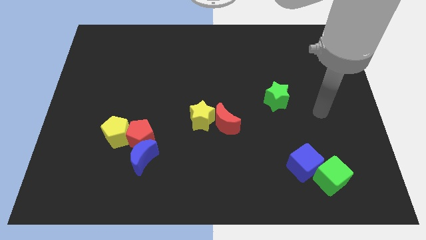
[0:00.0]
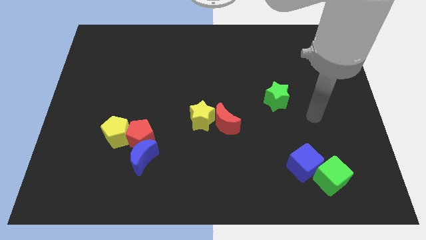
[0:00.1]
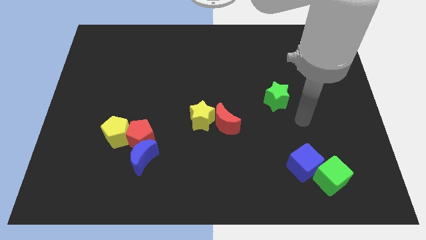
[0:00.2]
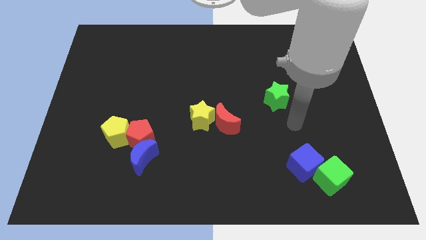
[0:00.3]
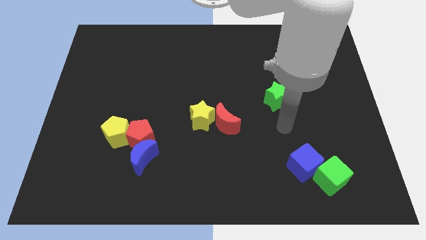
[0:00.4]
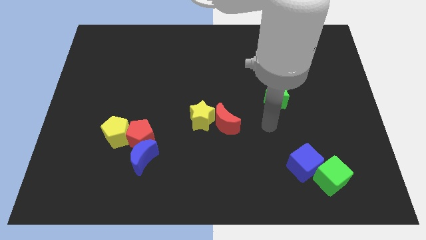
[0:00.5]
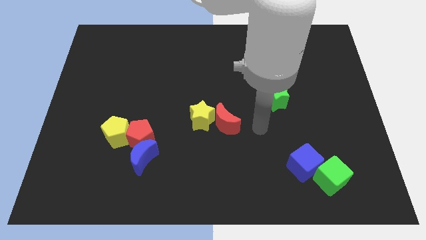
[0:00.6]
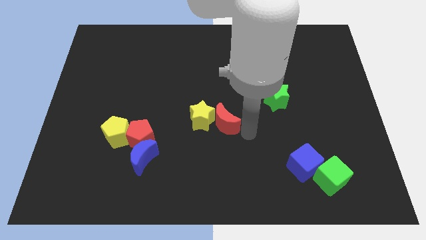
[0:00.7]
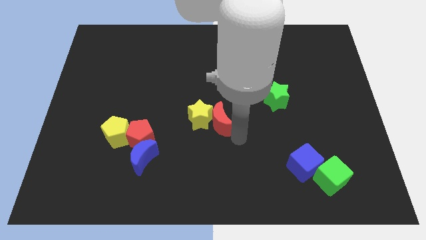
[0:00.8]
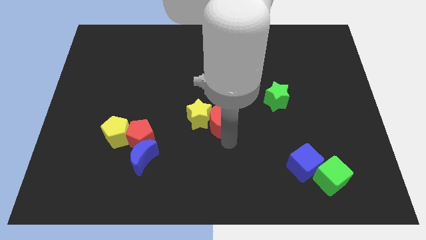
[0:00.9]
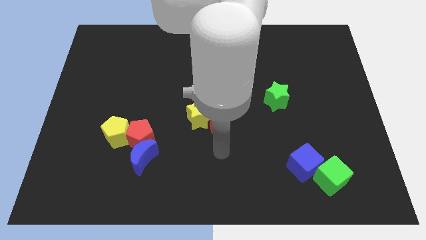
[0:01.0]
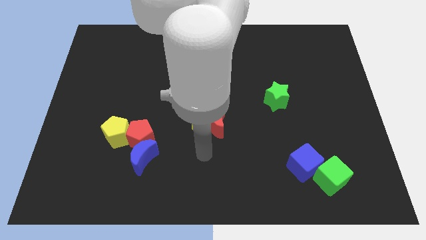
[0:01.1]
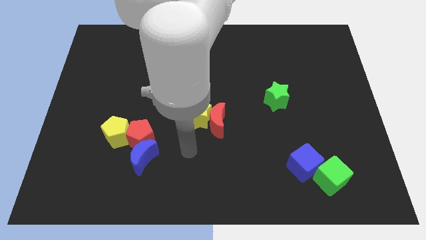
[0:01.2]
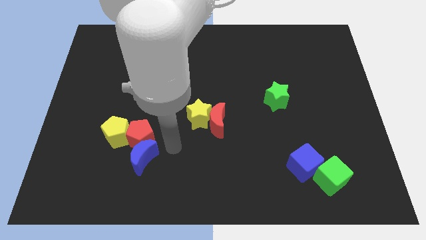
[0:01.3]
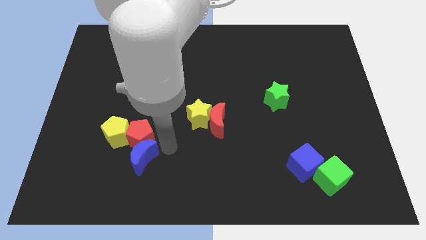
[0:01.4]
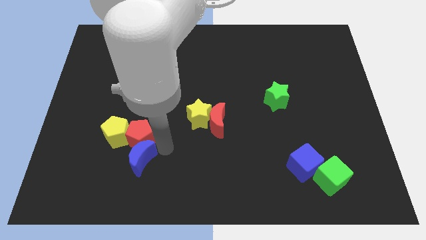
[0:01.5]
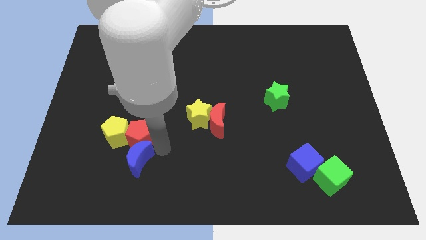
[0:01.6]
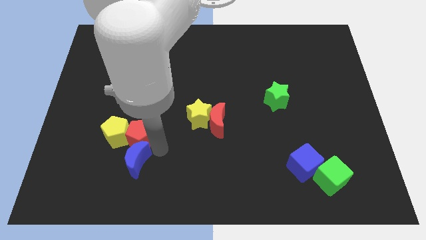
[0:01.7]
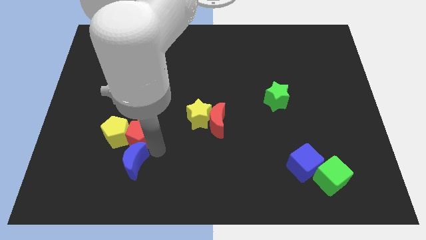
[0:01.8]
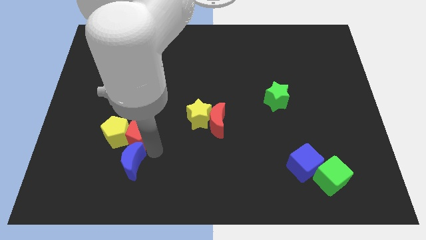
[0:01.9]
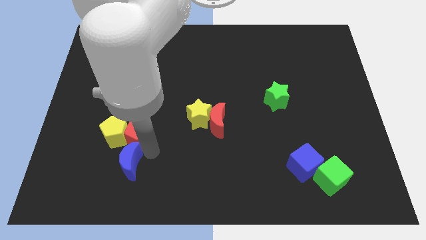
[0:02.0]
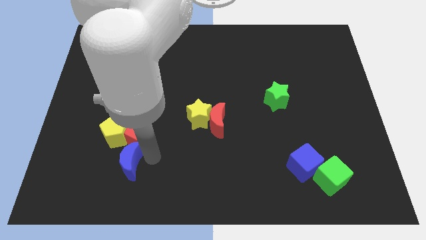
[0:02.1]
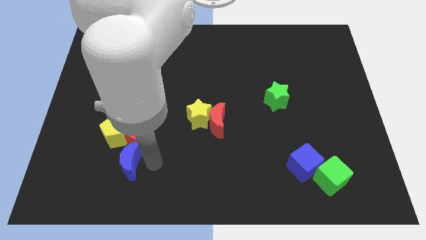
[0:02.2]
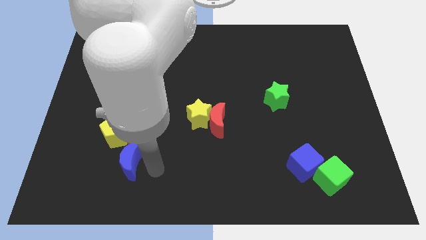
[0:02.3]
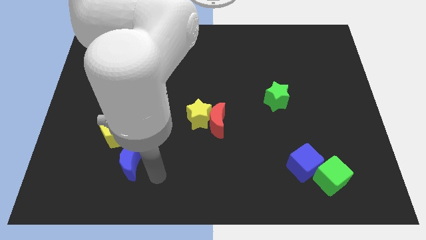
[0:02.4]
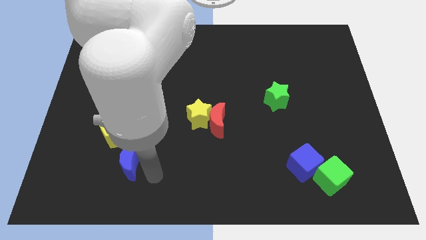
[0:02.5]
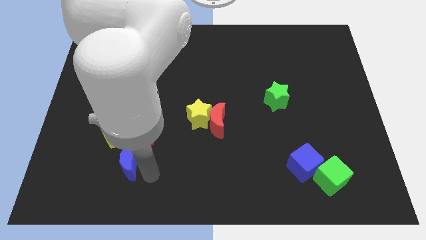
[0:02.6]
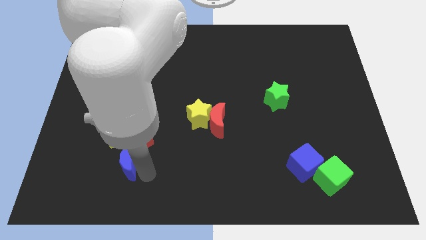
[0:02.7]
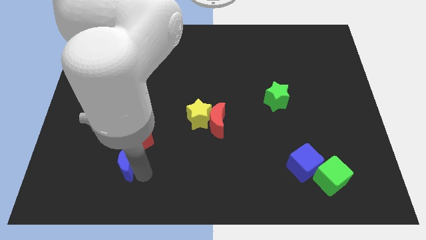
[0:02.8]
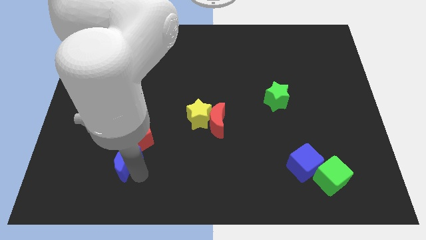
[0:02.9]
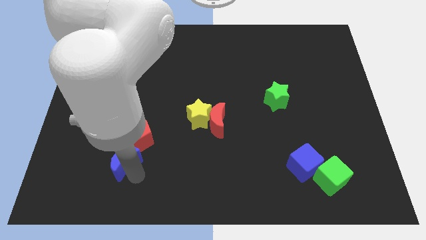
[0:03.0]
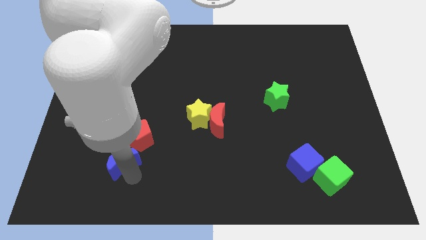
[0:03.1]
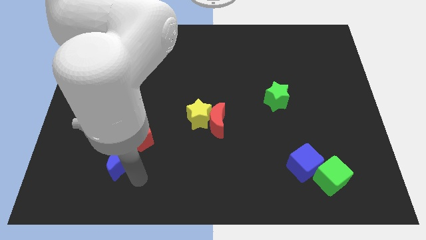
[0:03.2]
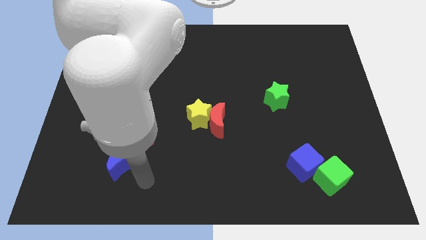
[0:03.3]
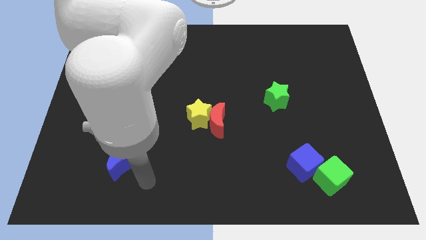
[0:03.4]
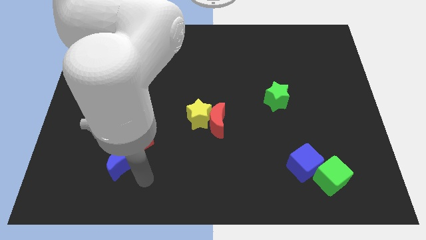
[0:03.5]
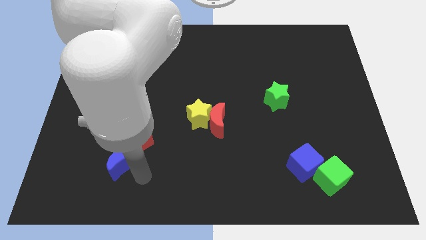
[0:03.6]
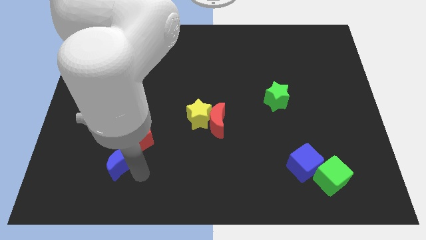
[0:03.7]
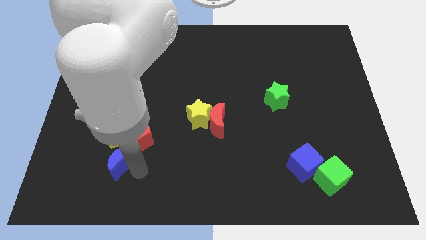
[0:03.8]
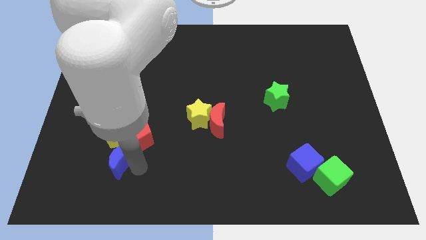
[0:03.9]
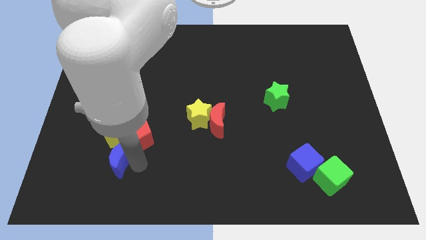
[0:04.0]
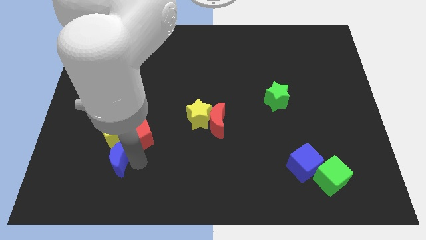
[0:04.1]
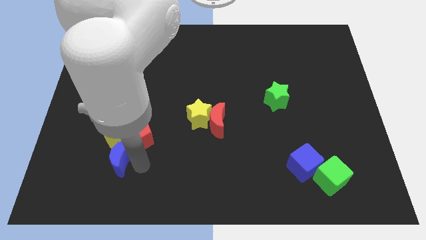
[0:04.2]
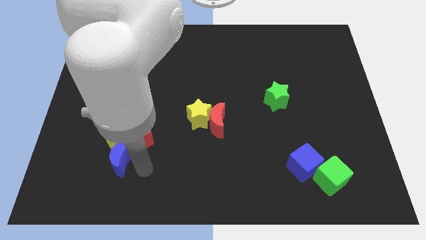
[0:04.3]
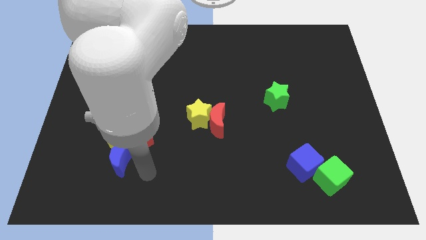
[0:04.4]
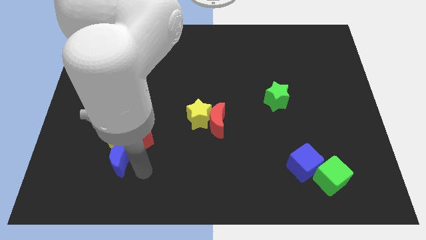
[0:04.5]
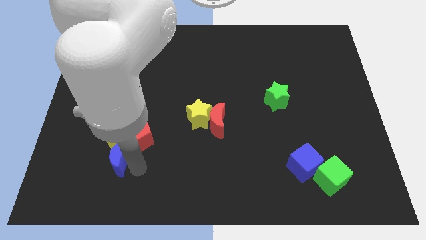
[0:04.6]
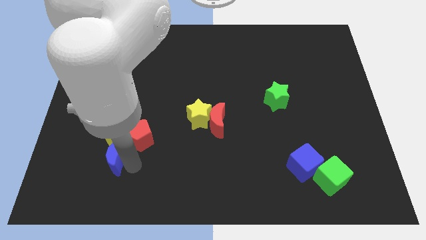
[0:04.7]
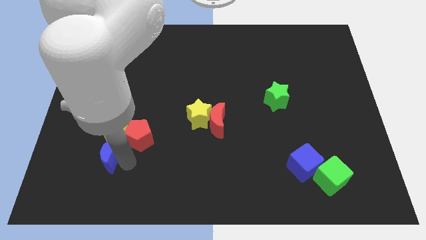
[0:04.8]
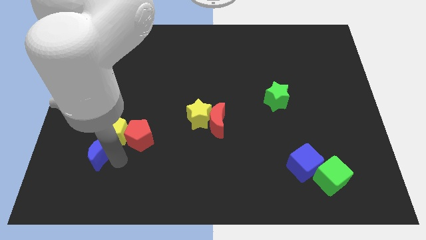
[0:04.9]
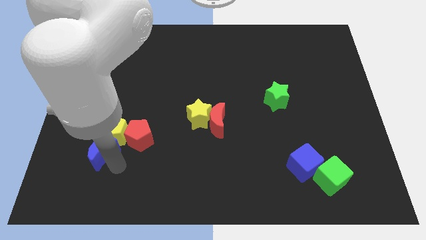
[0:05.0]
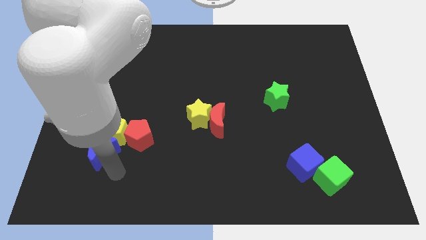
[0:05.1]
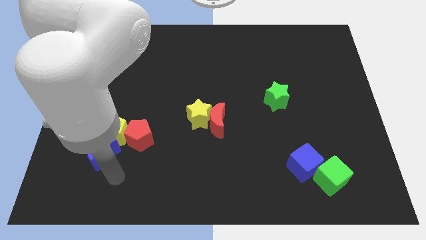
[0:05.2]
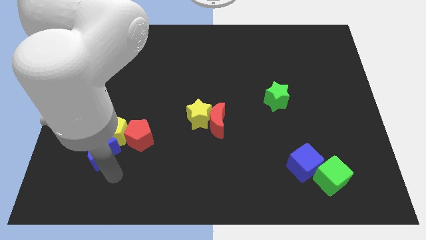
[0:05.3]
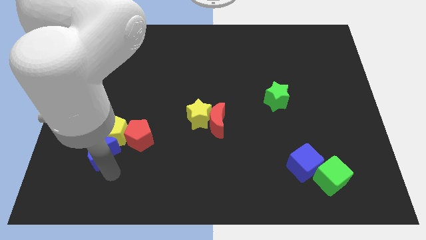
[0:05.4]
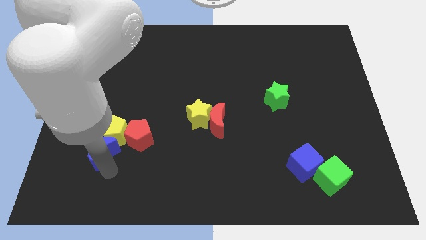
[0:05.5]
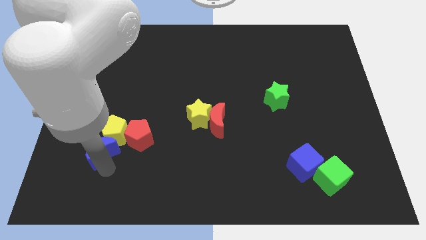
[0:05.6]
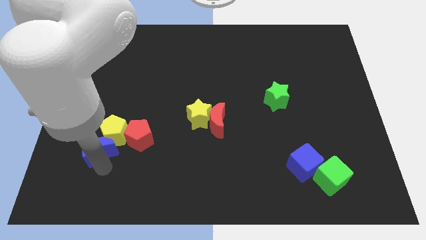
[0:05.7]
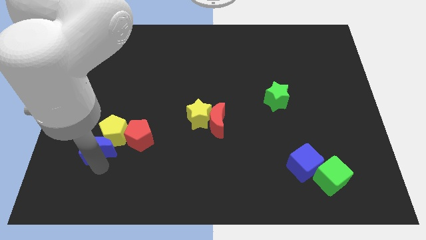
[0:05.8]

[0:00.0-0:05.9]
push the blue moon slightly diagonally up and left

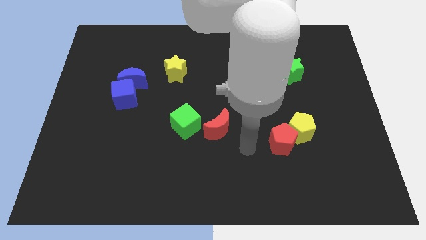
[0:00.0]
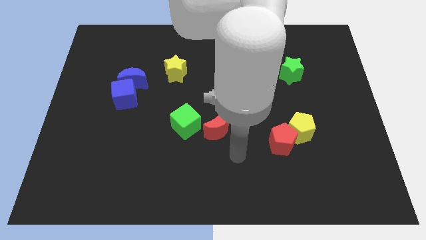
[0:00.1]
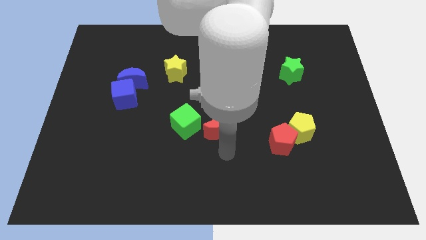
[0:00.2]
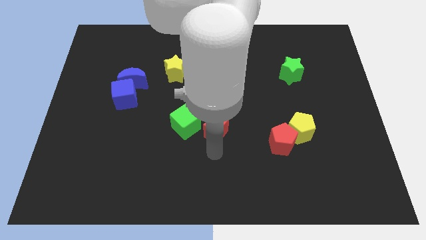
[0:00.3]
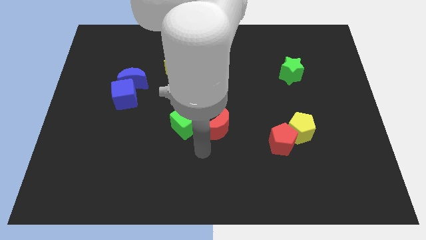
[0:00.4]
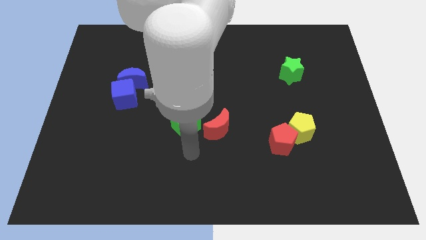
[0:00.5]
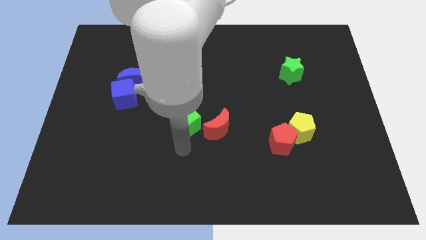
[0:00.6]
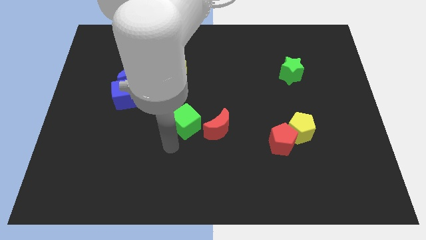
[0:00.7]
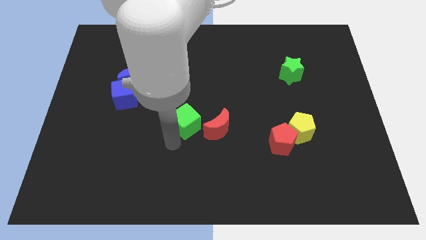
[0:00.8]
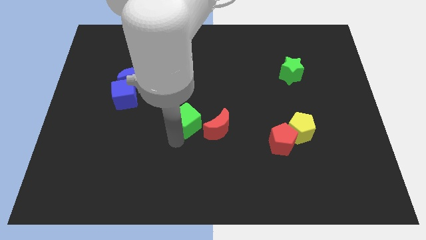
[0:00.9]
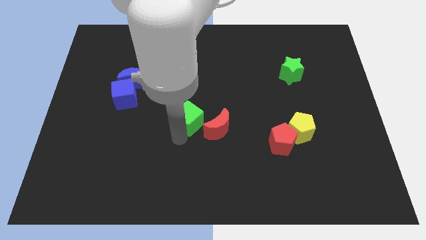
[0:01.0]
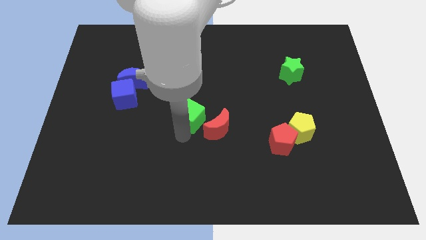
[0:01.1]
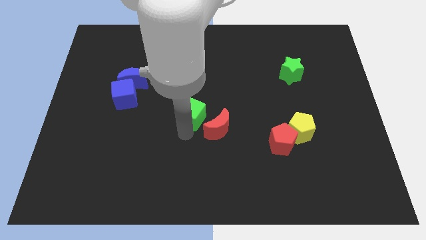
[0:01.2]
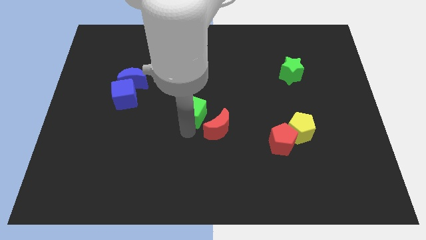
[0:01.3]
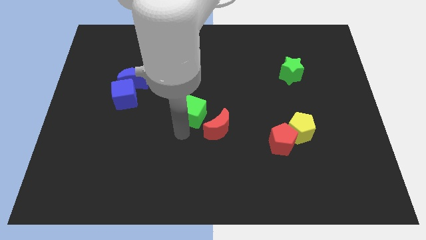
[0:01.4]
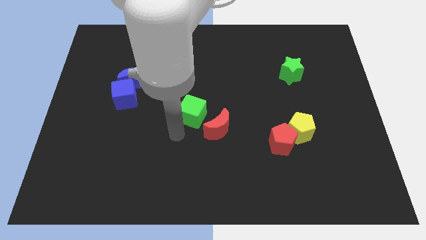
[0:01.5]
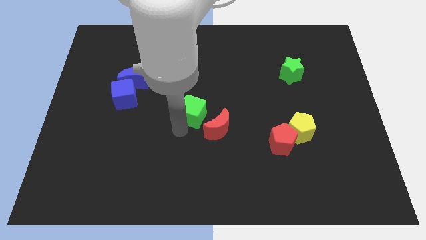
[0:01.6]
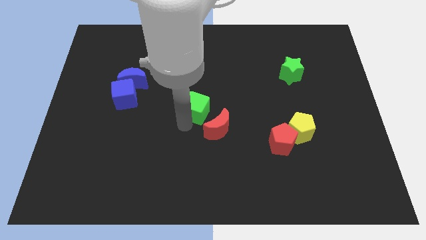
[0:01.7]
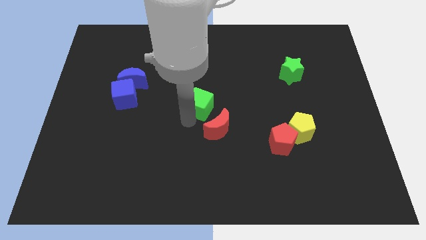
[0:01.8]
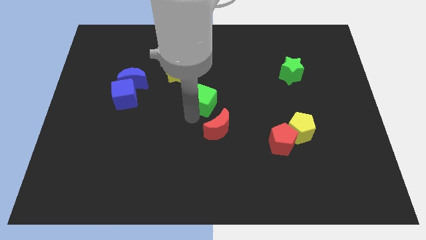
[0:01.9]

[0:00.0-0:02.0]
slightly move the green cube up and then right

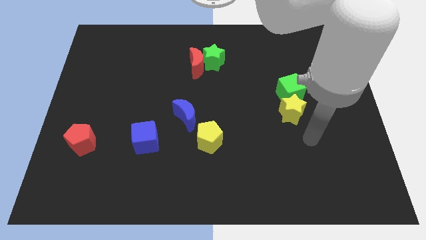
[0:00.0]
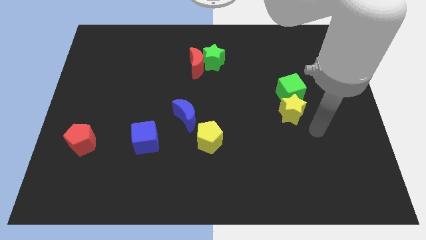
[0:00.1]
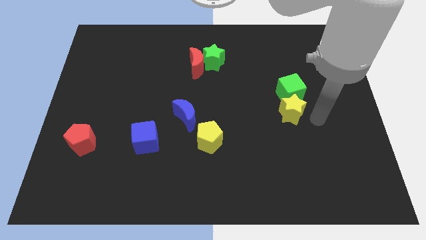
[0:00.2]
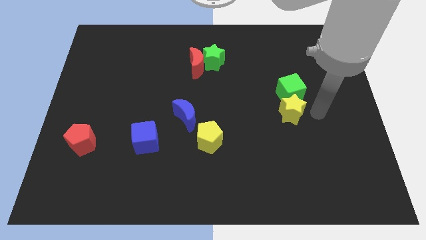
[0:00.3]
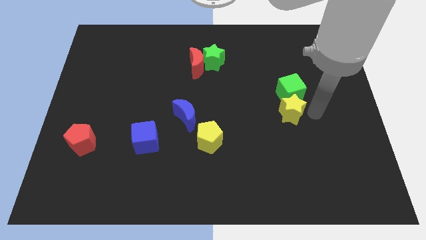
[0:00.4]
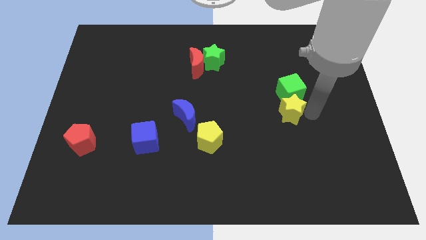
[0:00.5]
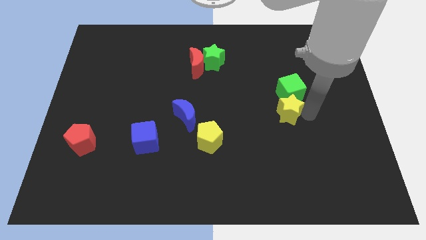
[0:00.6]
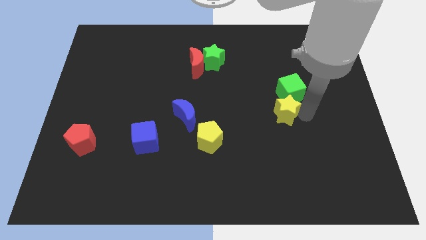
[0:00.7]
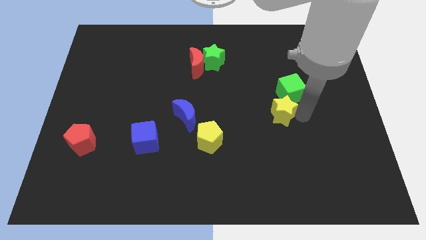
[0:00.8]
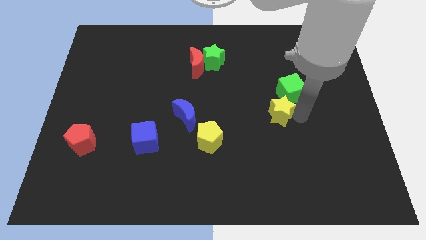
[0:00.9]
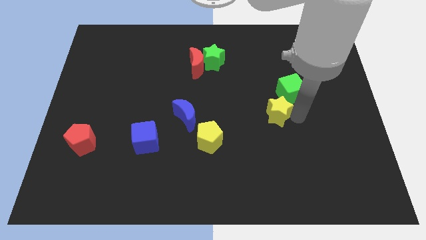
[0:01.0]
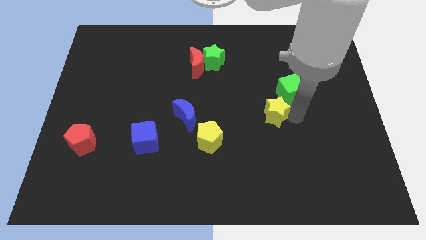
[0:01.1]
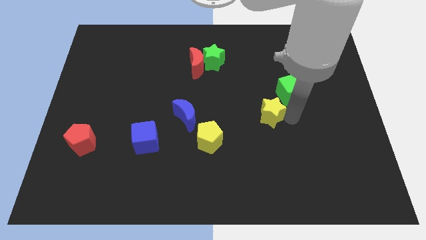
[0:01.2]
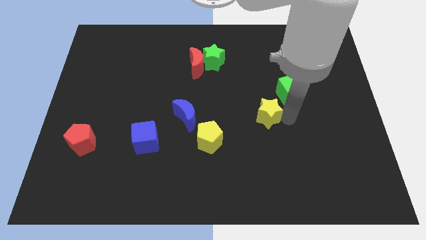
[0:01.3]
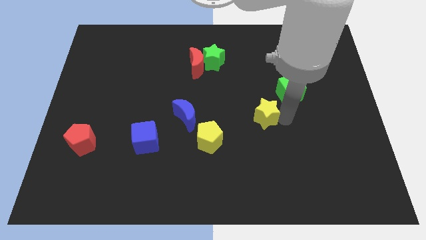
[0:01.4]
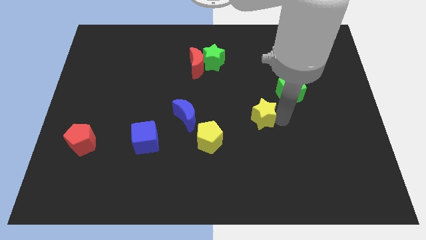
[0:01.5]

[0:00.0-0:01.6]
move the yellow star left slightly
